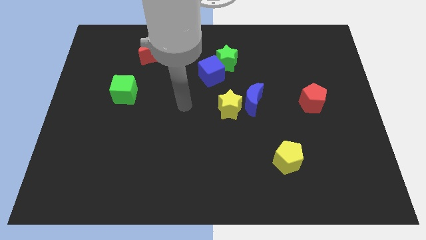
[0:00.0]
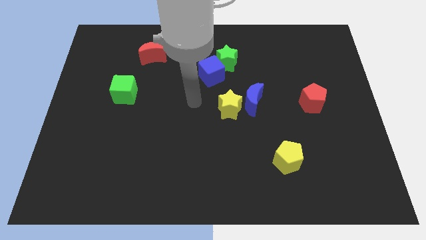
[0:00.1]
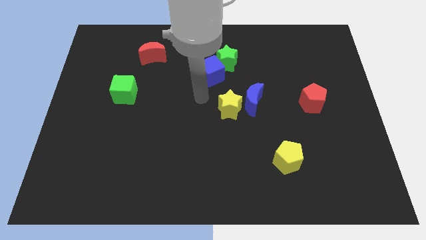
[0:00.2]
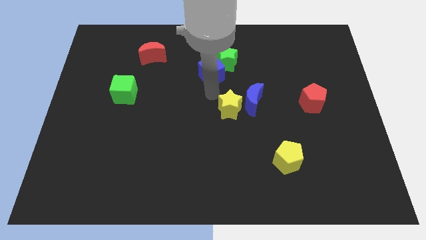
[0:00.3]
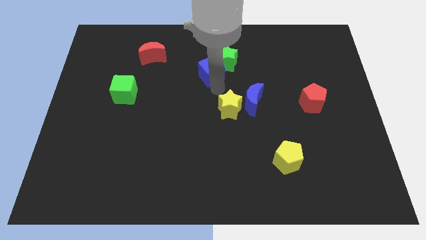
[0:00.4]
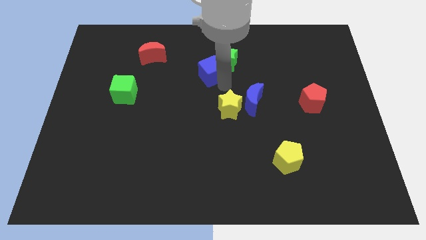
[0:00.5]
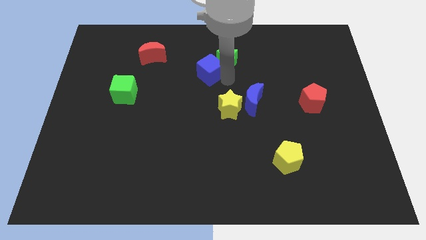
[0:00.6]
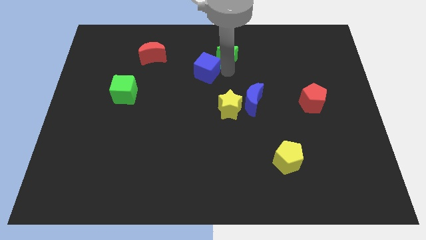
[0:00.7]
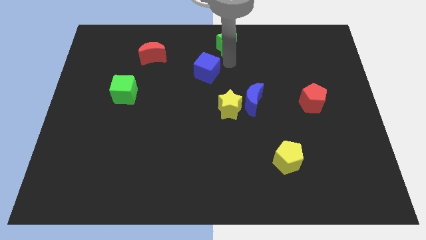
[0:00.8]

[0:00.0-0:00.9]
move the blue cube away from the green star

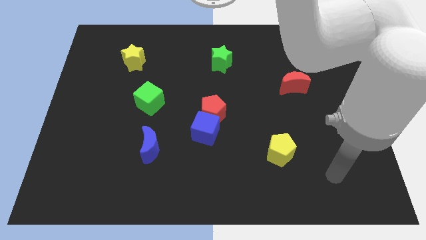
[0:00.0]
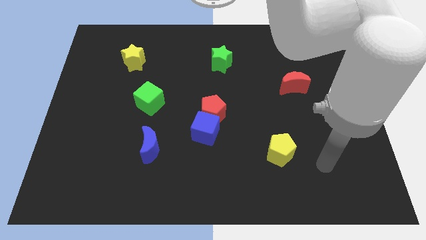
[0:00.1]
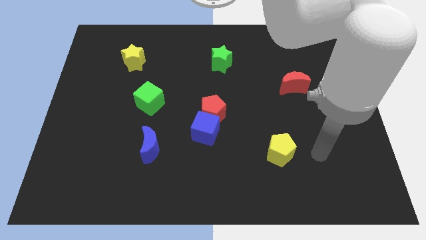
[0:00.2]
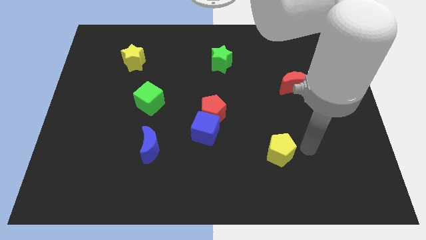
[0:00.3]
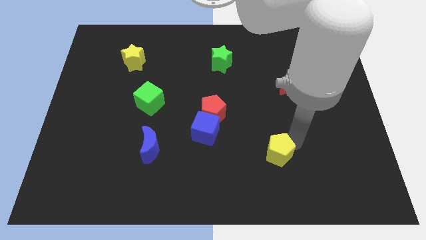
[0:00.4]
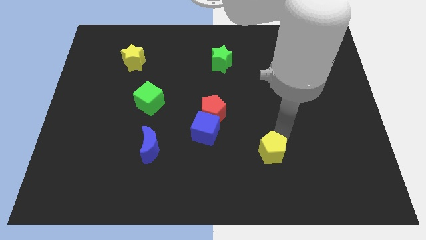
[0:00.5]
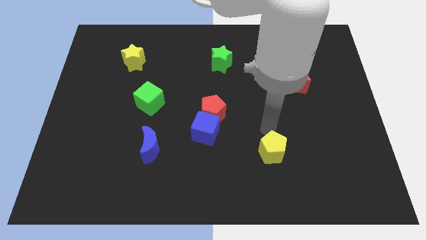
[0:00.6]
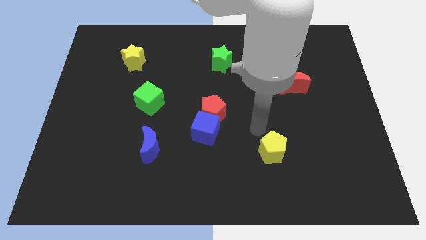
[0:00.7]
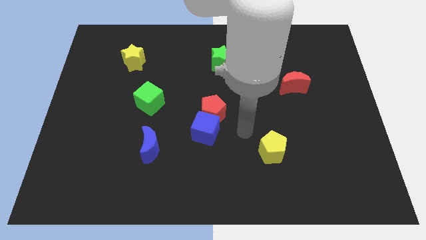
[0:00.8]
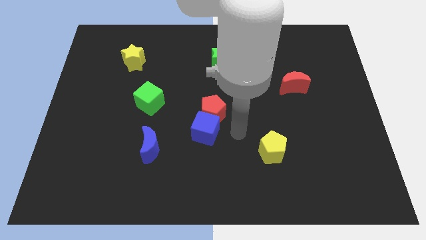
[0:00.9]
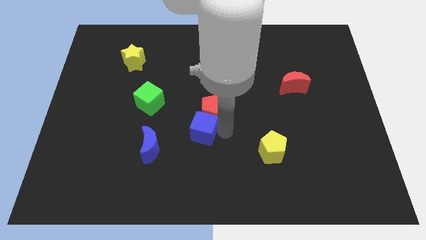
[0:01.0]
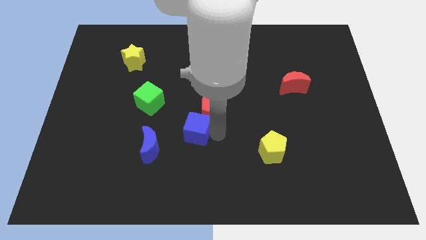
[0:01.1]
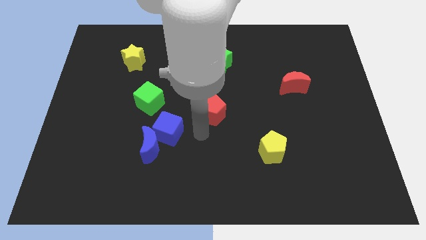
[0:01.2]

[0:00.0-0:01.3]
move the red pentagon away from the blue cube

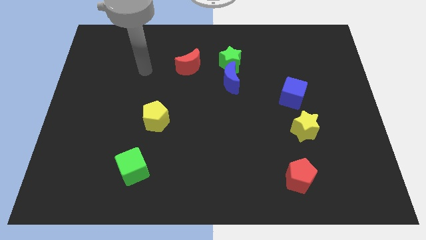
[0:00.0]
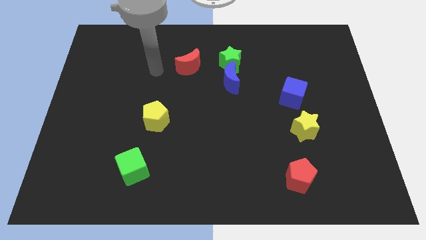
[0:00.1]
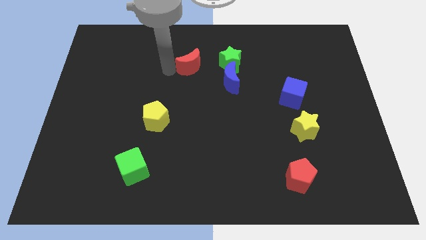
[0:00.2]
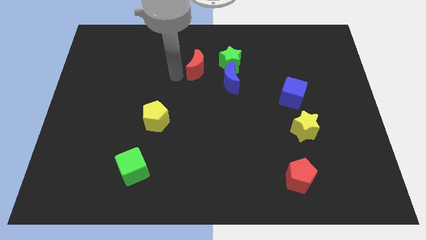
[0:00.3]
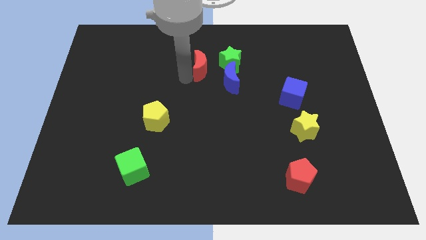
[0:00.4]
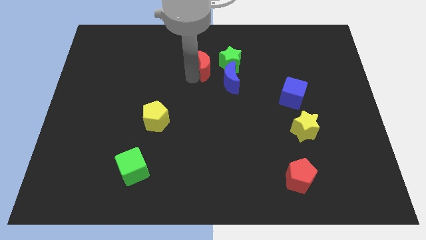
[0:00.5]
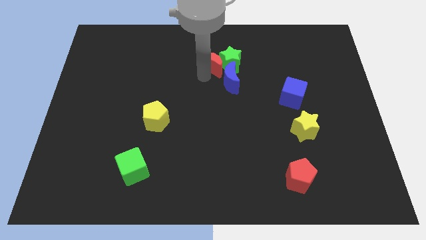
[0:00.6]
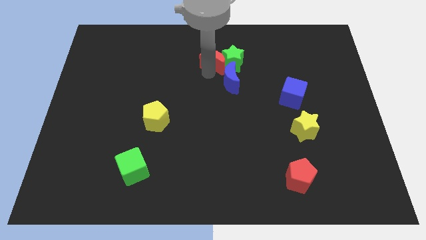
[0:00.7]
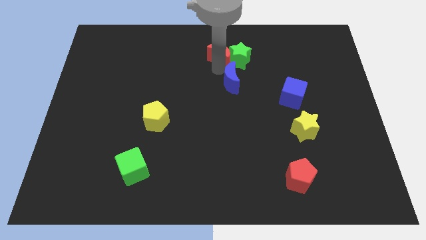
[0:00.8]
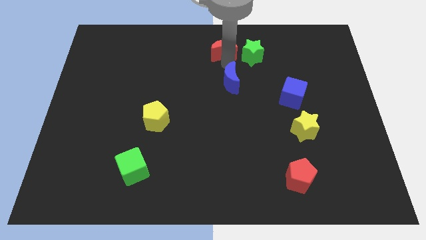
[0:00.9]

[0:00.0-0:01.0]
move the blue moon away from the green star

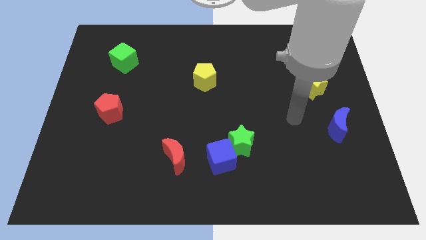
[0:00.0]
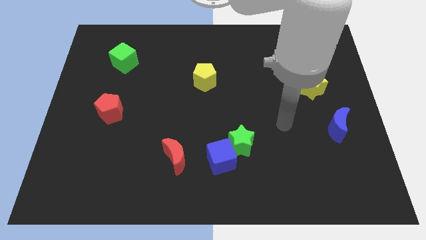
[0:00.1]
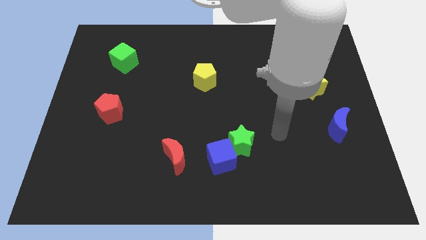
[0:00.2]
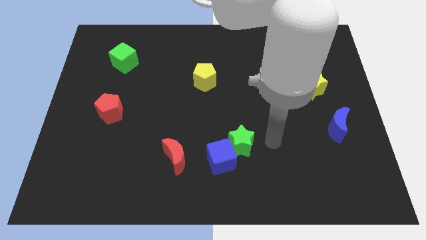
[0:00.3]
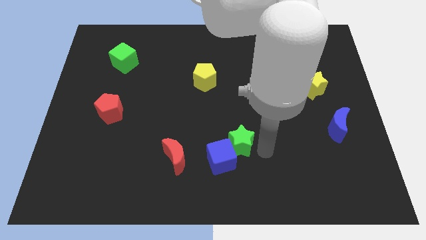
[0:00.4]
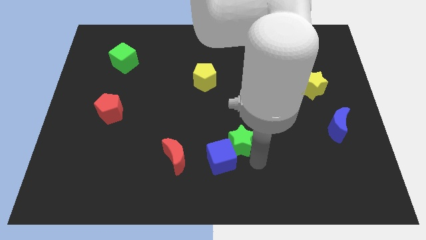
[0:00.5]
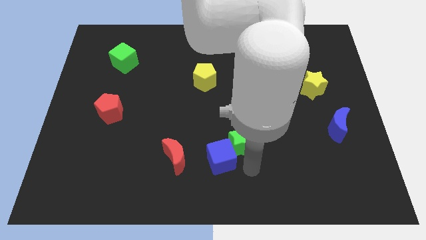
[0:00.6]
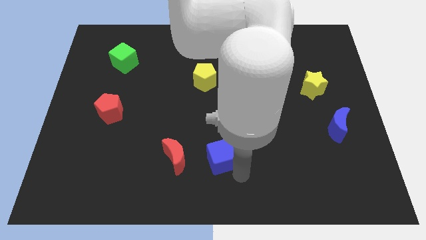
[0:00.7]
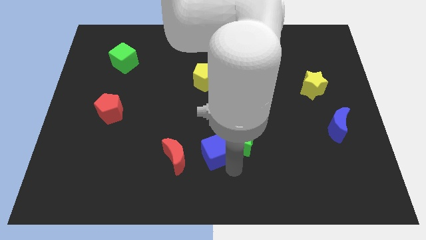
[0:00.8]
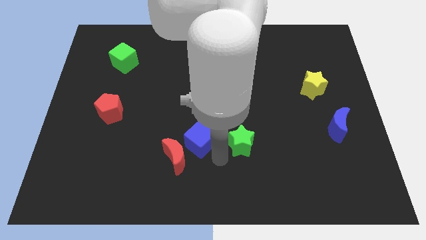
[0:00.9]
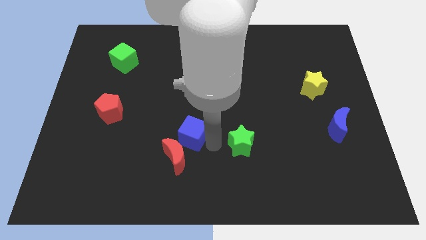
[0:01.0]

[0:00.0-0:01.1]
separate the green star from the blue cube

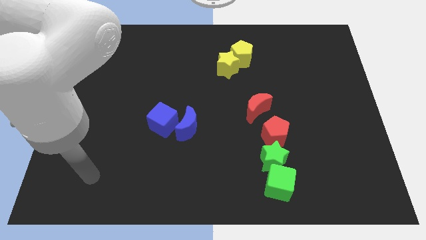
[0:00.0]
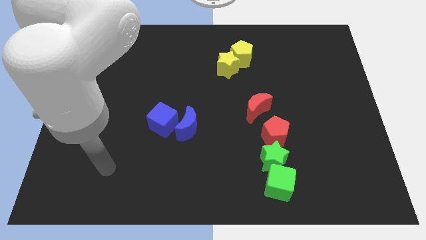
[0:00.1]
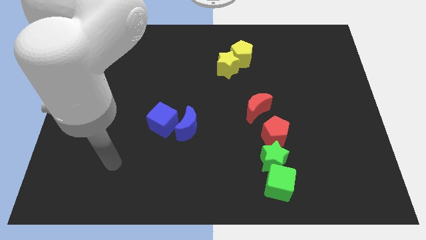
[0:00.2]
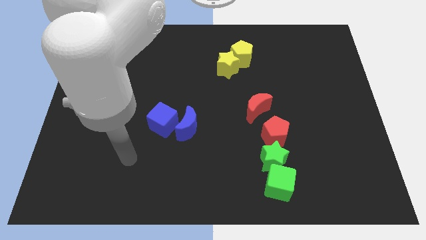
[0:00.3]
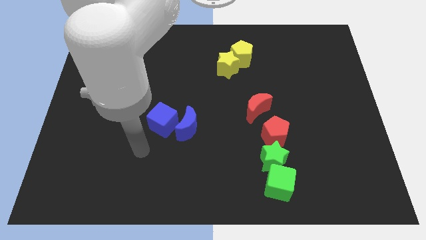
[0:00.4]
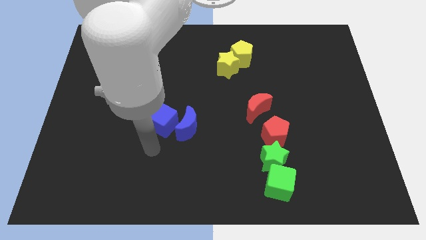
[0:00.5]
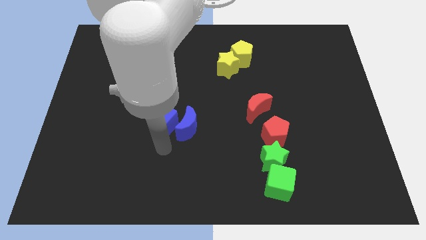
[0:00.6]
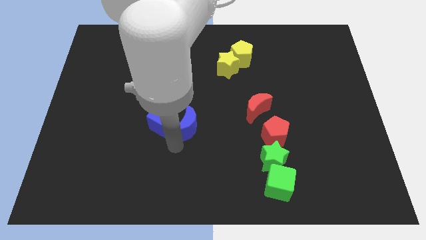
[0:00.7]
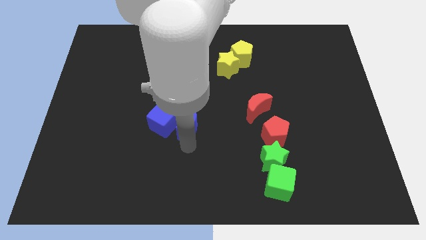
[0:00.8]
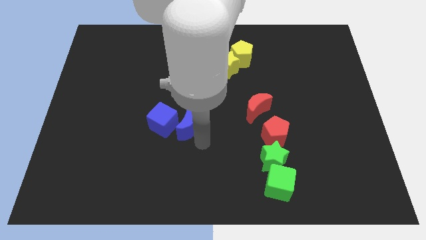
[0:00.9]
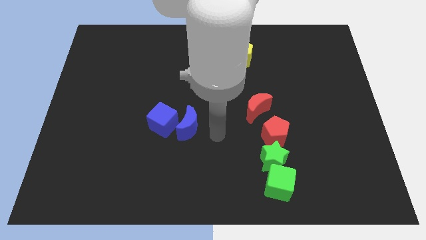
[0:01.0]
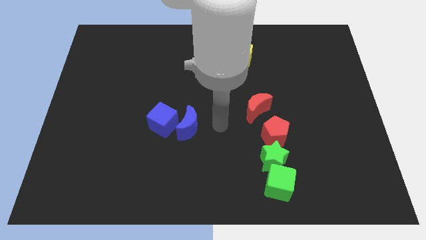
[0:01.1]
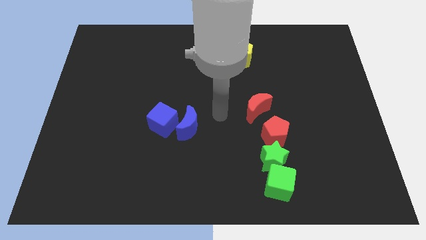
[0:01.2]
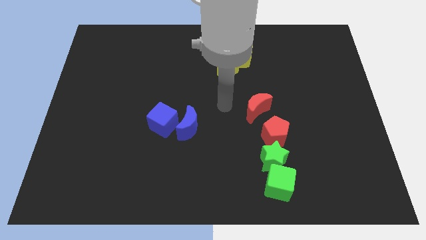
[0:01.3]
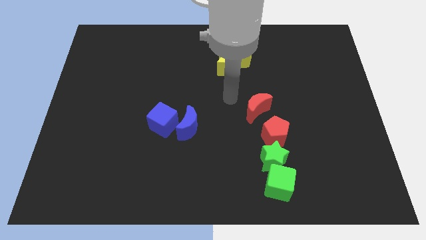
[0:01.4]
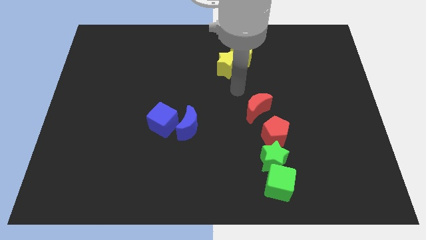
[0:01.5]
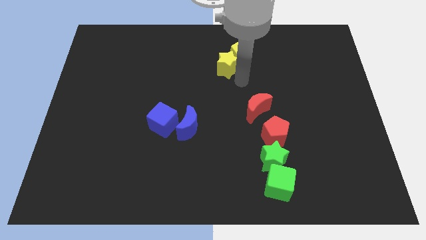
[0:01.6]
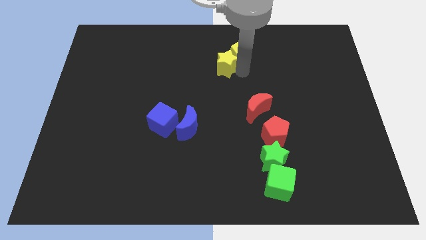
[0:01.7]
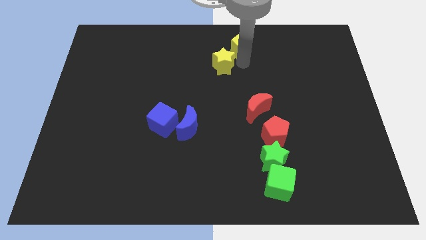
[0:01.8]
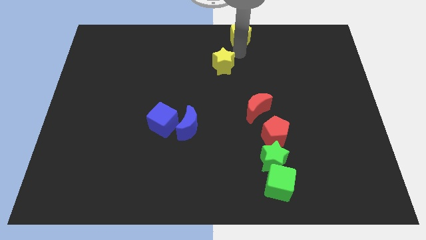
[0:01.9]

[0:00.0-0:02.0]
separate the yellow star from the yellow pentagon

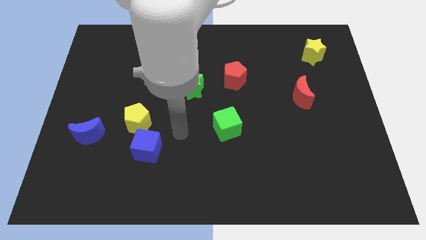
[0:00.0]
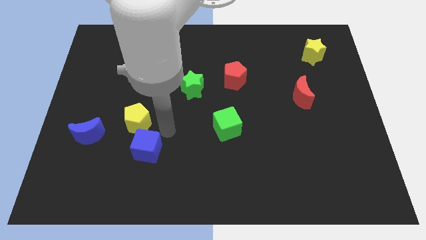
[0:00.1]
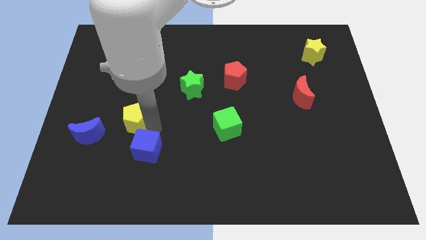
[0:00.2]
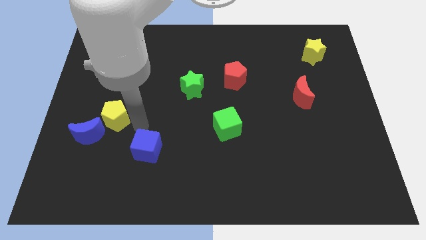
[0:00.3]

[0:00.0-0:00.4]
separate the blue cube from the yellow pentagon

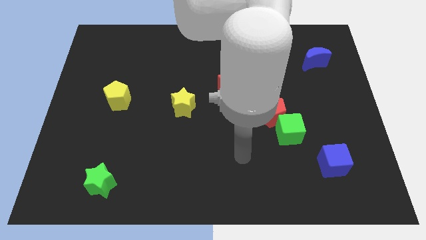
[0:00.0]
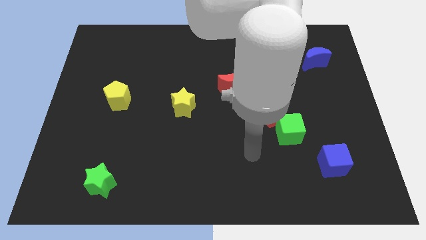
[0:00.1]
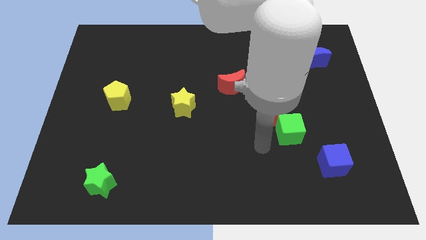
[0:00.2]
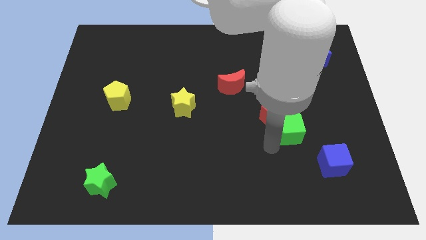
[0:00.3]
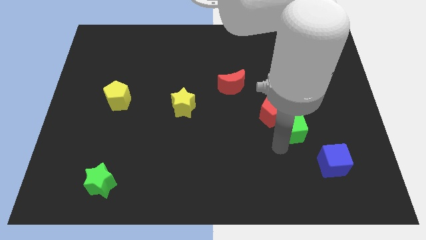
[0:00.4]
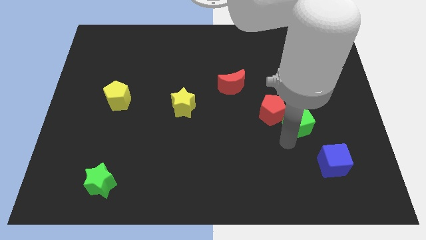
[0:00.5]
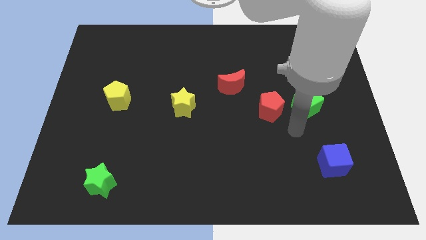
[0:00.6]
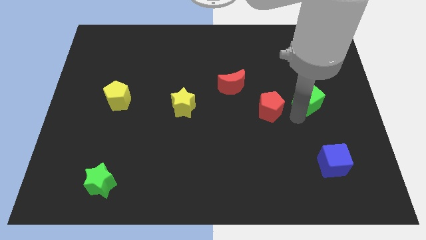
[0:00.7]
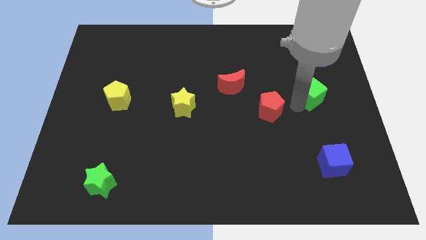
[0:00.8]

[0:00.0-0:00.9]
move the red pentagon away from the green cube

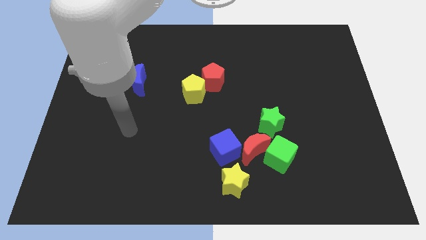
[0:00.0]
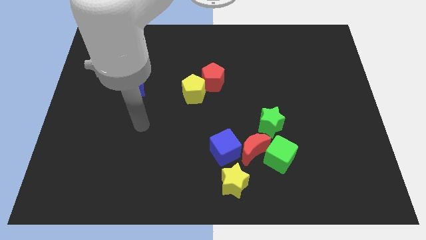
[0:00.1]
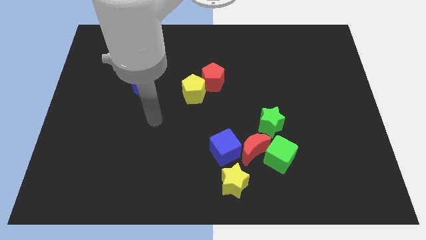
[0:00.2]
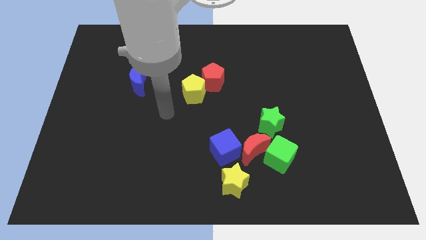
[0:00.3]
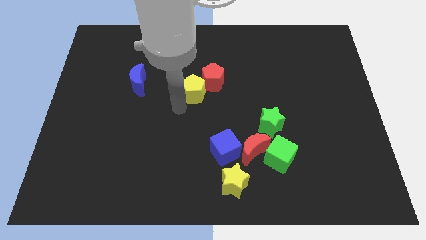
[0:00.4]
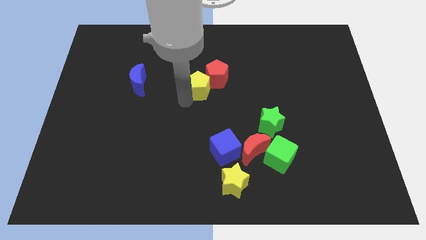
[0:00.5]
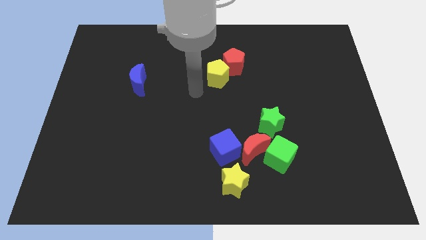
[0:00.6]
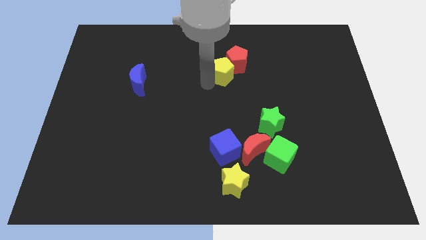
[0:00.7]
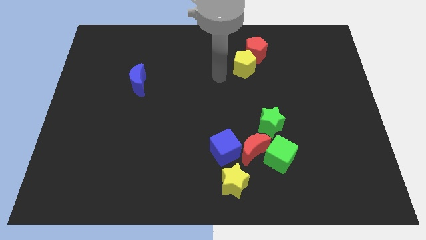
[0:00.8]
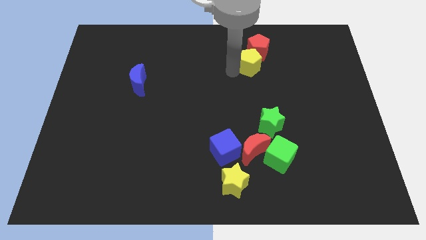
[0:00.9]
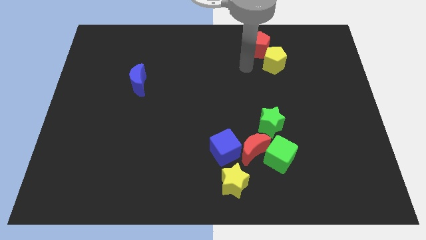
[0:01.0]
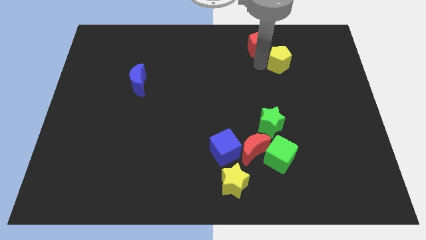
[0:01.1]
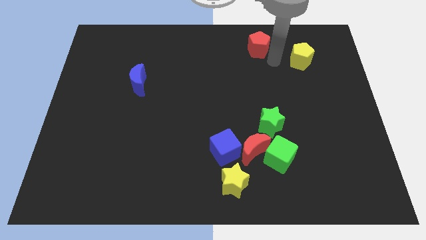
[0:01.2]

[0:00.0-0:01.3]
separate the red pentagon from the yellow pentagon

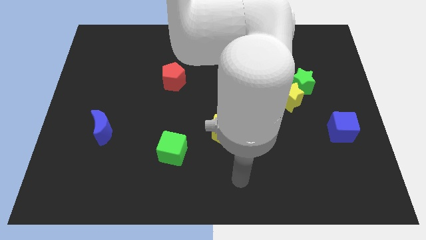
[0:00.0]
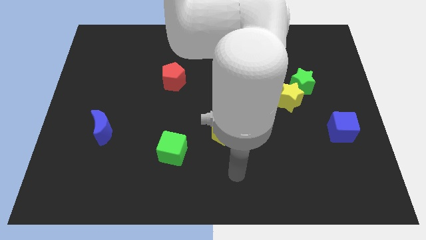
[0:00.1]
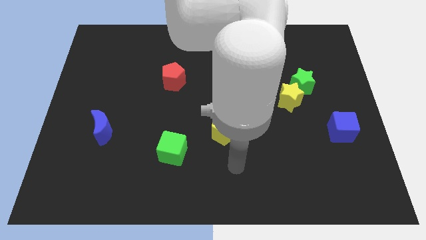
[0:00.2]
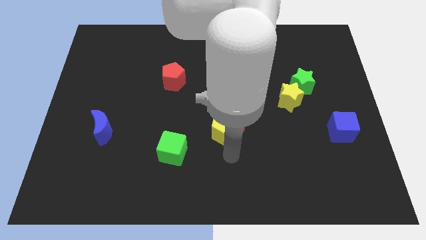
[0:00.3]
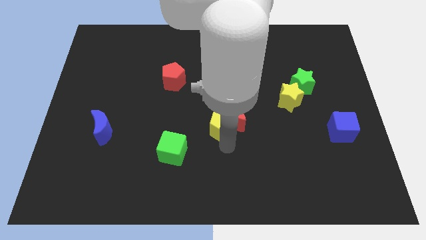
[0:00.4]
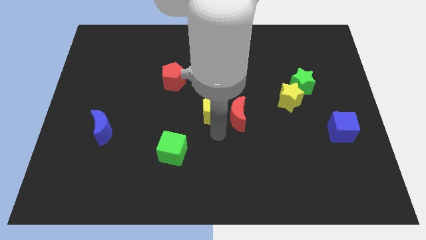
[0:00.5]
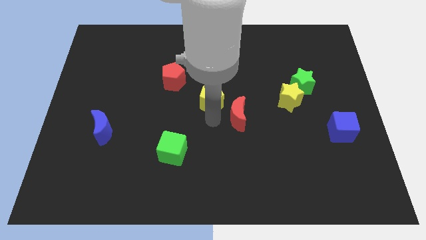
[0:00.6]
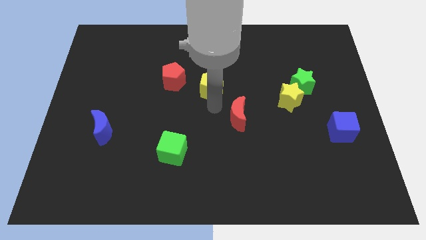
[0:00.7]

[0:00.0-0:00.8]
pull the red moon apart from the yellow pentagon
